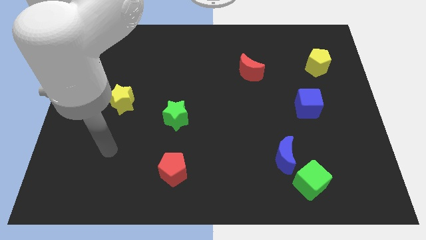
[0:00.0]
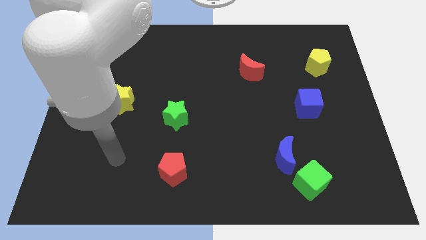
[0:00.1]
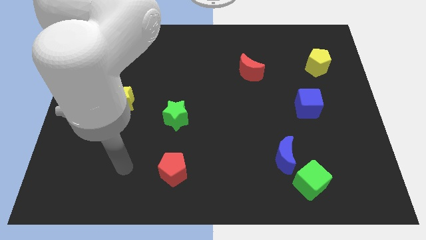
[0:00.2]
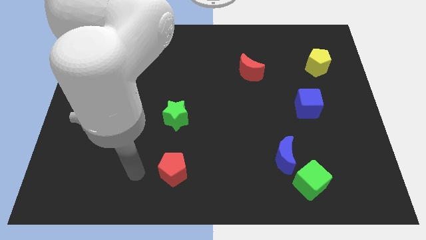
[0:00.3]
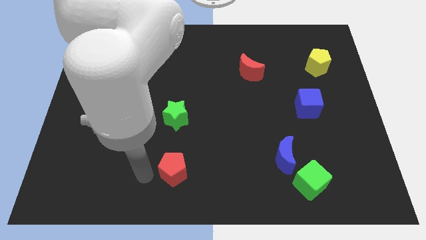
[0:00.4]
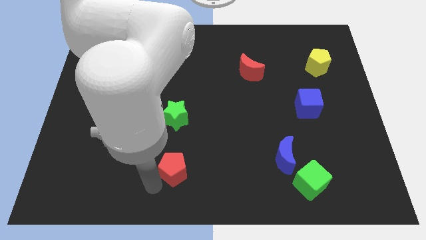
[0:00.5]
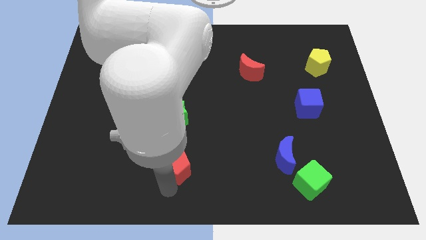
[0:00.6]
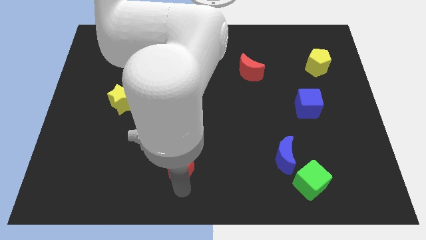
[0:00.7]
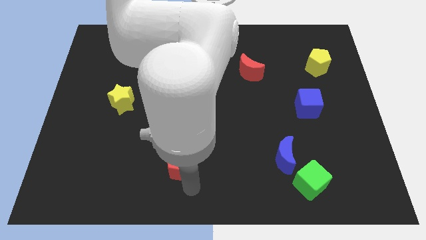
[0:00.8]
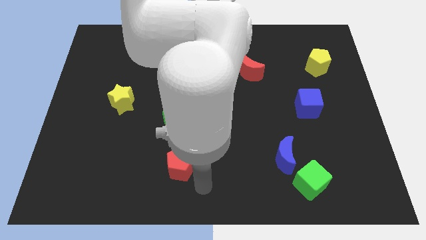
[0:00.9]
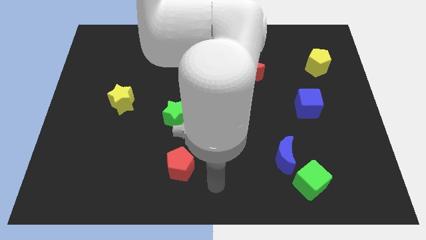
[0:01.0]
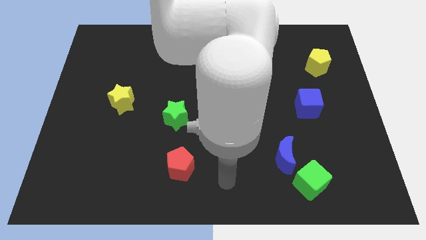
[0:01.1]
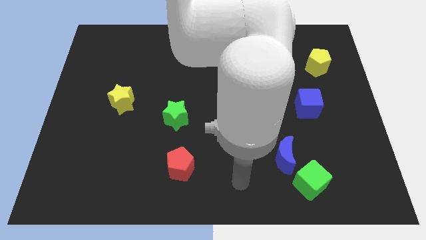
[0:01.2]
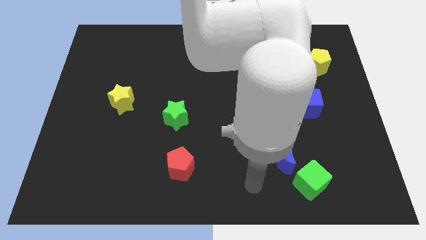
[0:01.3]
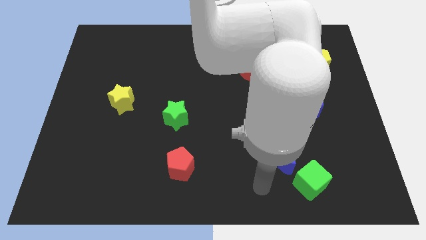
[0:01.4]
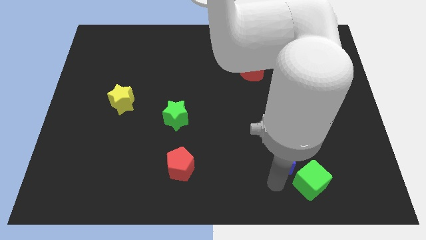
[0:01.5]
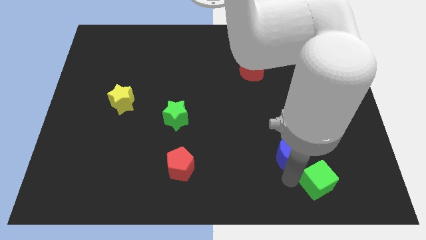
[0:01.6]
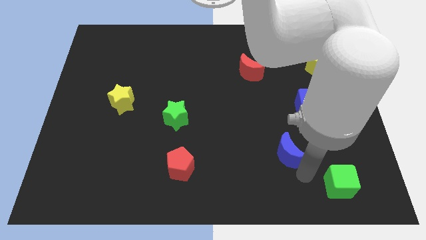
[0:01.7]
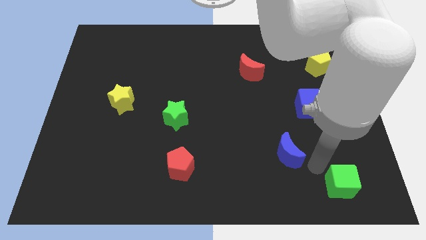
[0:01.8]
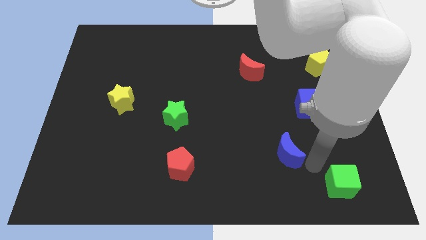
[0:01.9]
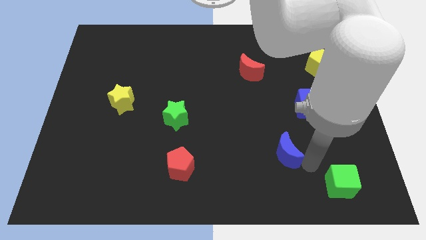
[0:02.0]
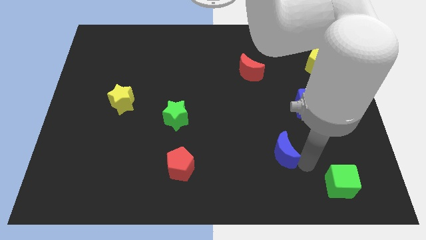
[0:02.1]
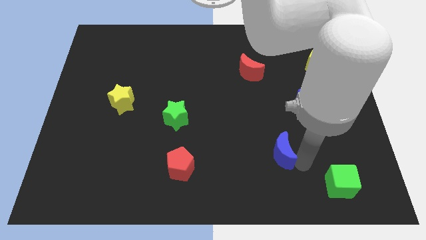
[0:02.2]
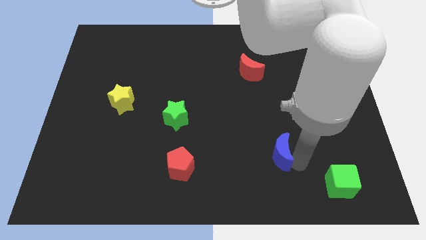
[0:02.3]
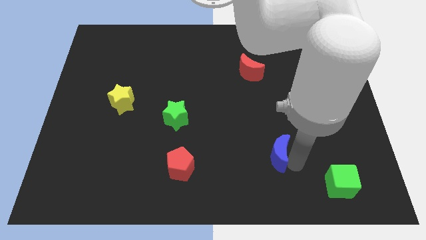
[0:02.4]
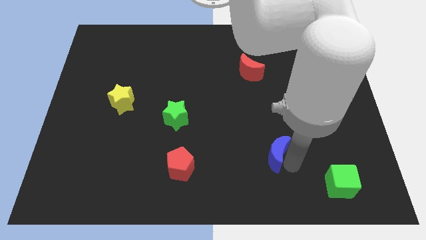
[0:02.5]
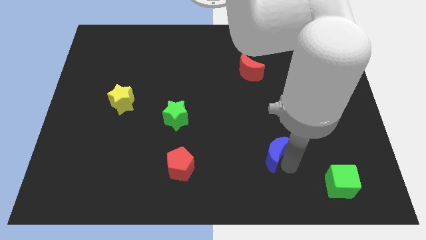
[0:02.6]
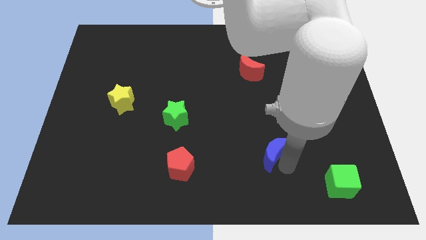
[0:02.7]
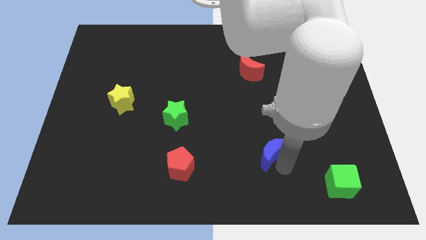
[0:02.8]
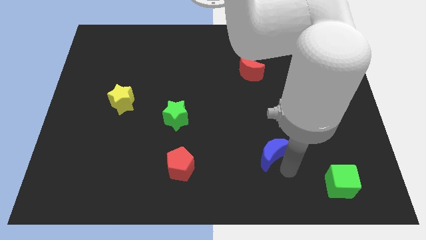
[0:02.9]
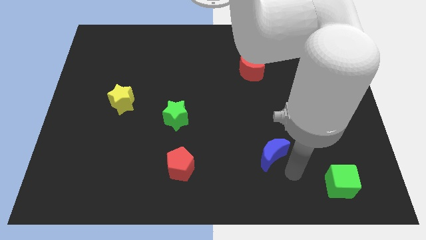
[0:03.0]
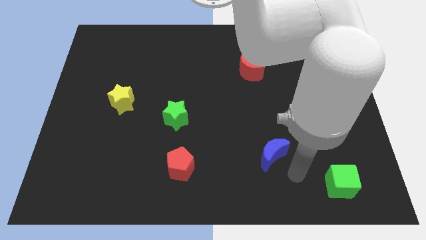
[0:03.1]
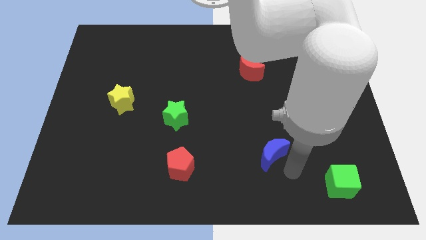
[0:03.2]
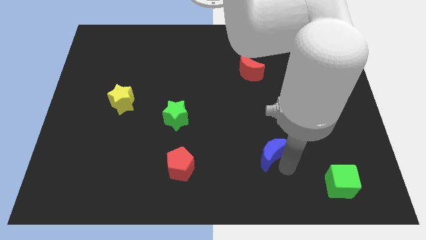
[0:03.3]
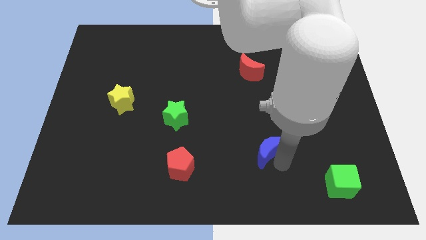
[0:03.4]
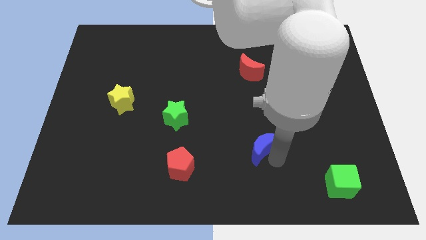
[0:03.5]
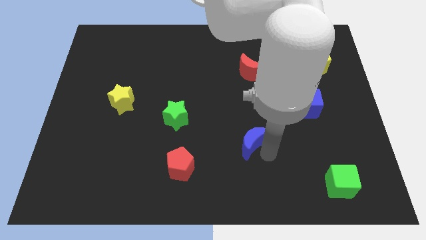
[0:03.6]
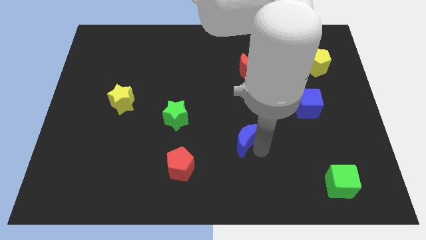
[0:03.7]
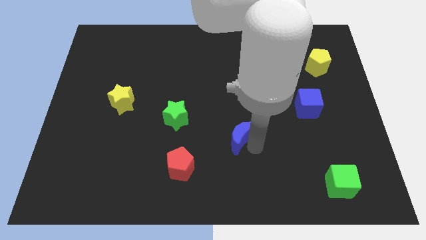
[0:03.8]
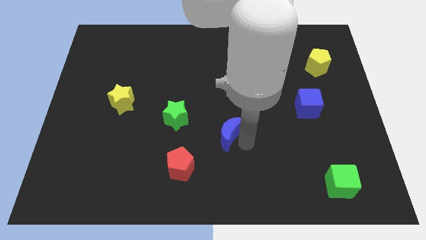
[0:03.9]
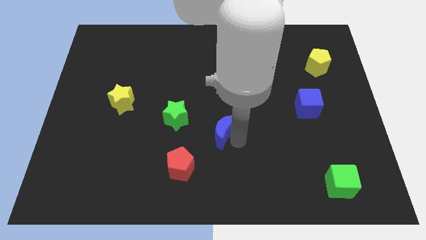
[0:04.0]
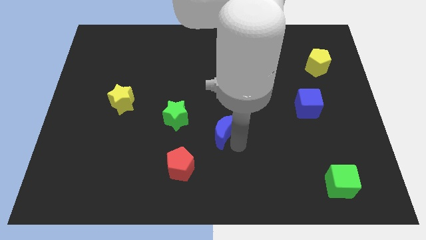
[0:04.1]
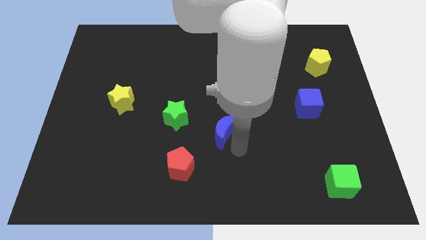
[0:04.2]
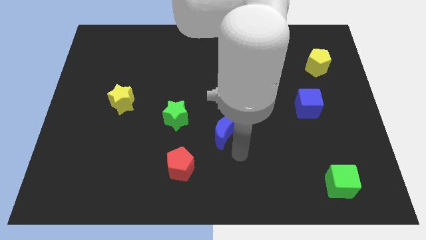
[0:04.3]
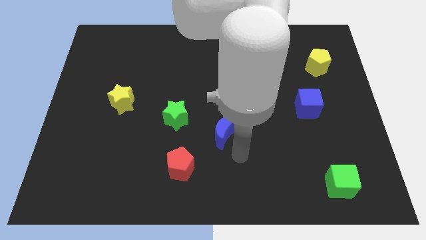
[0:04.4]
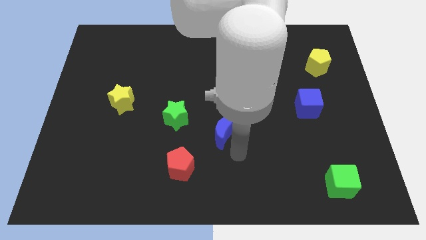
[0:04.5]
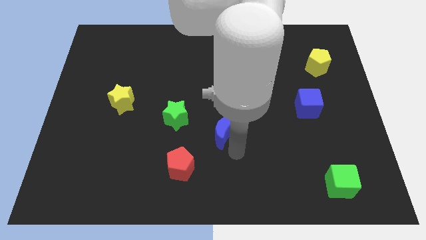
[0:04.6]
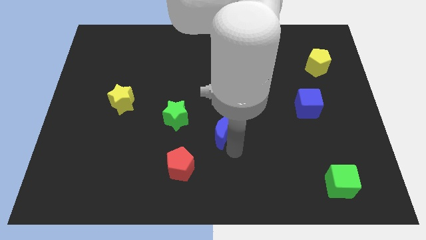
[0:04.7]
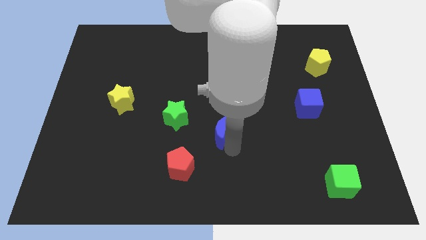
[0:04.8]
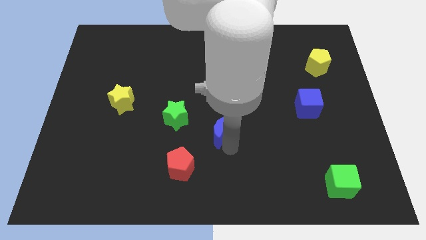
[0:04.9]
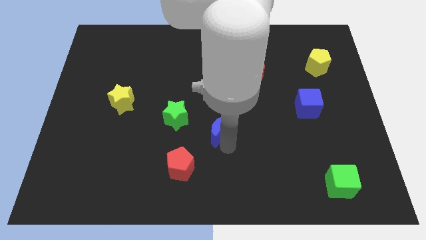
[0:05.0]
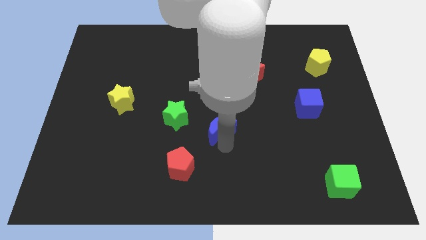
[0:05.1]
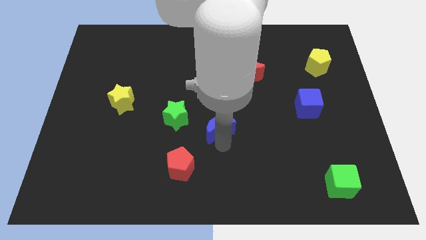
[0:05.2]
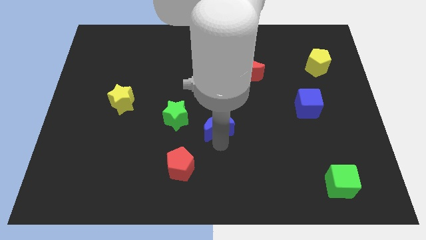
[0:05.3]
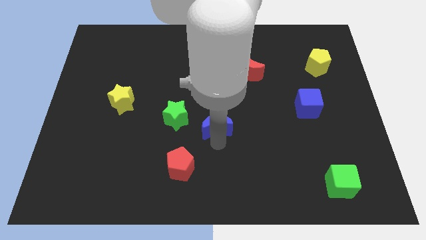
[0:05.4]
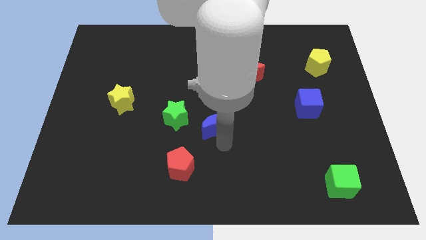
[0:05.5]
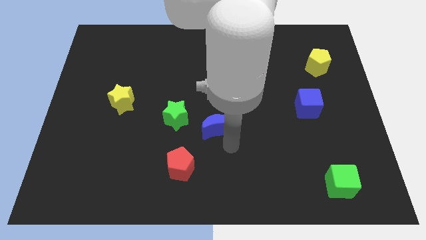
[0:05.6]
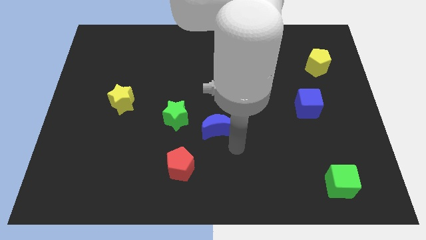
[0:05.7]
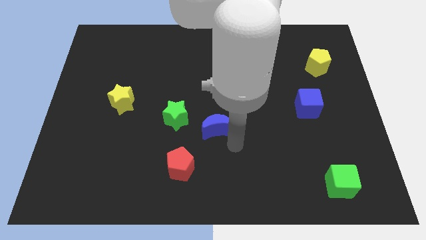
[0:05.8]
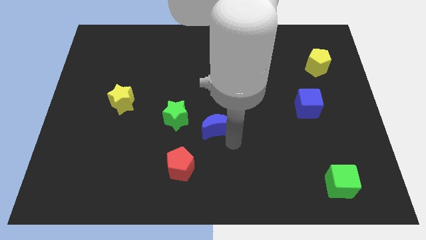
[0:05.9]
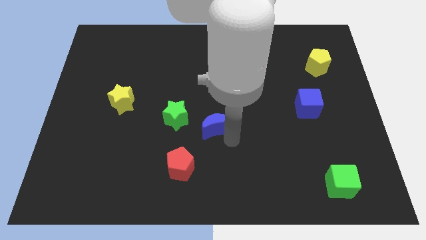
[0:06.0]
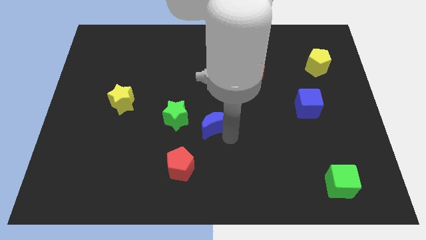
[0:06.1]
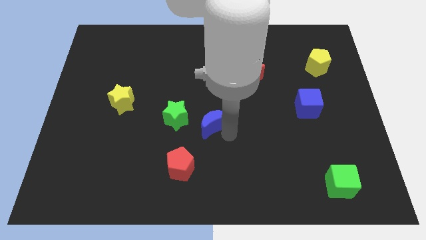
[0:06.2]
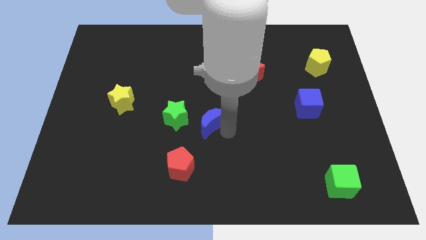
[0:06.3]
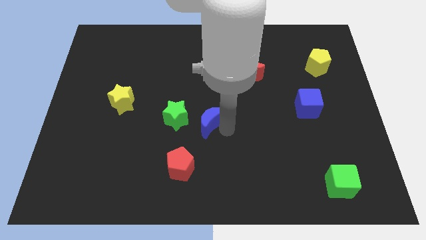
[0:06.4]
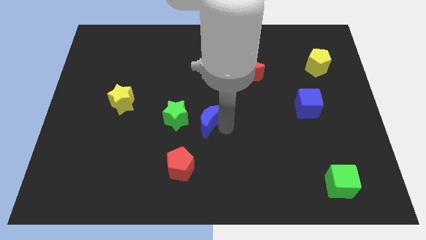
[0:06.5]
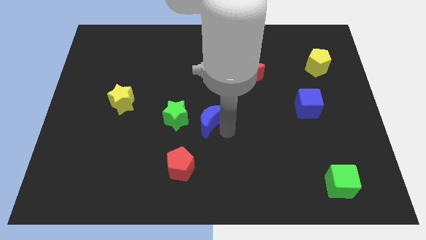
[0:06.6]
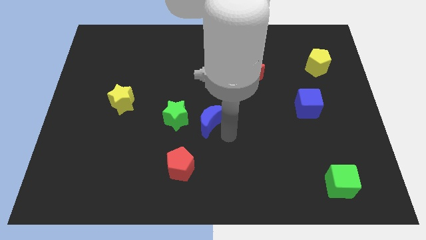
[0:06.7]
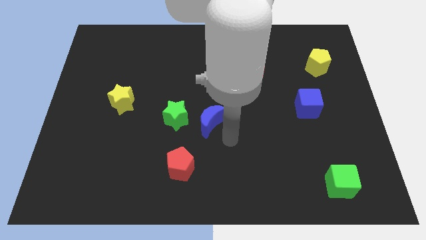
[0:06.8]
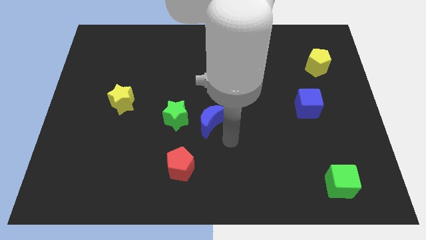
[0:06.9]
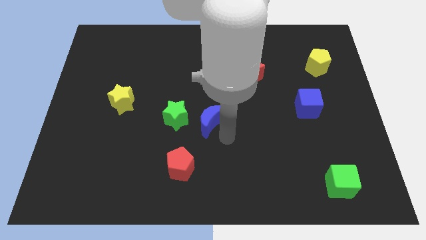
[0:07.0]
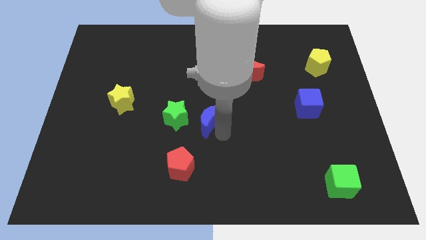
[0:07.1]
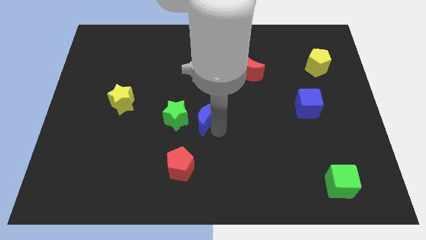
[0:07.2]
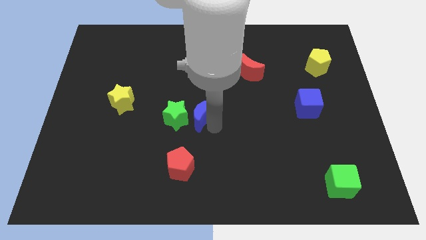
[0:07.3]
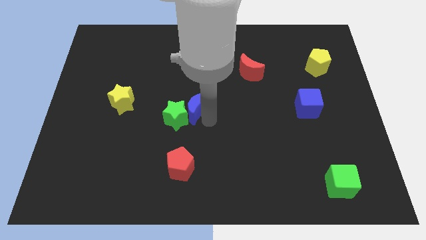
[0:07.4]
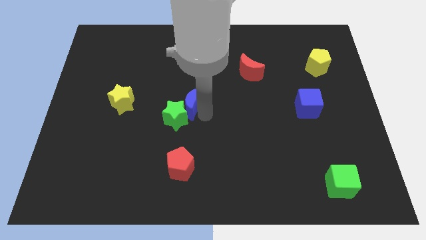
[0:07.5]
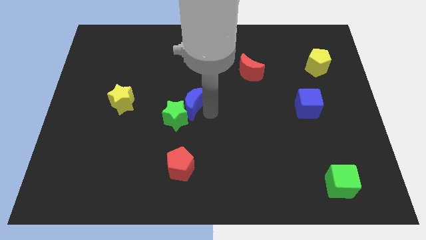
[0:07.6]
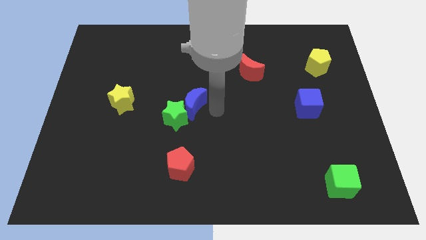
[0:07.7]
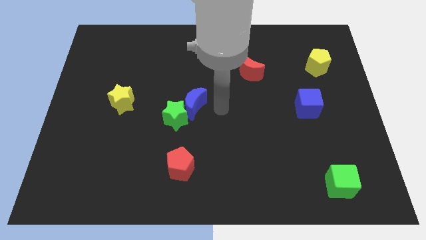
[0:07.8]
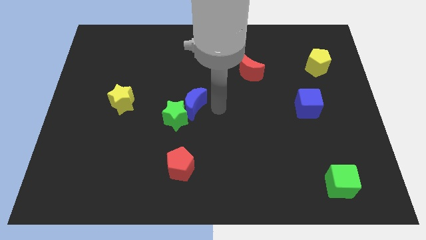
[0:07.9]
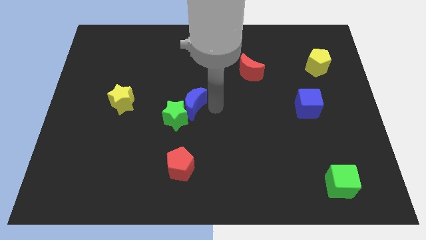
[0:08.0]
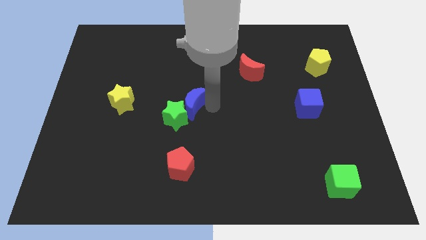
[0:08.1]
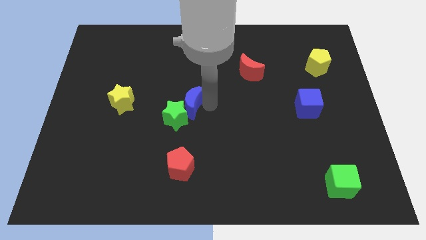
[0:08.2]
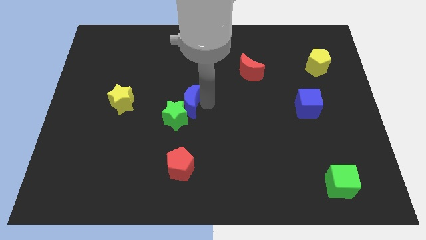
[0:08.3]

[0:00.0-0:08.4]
push the blue moon to the right of the yellow star
